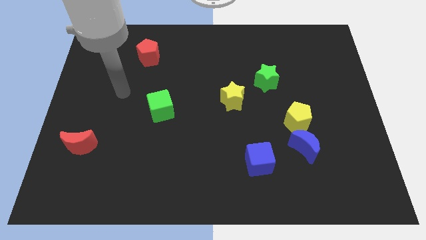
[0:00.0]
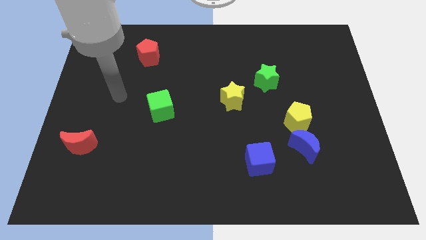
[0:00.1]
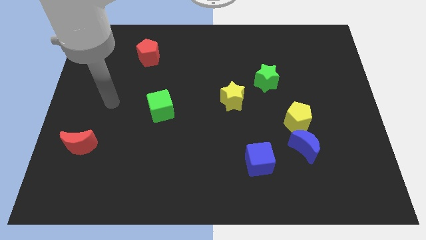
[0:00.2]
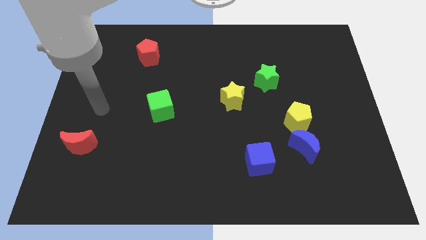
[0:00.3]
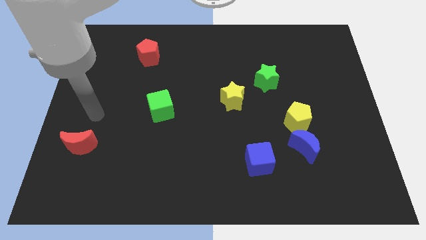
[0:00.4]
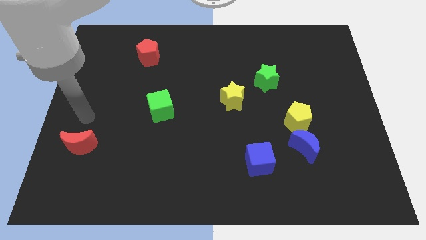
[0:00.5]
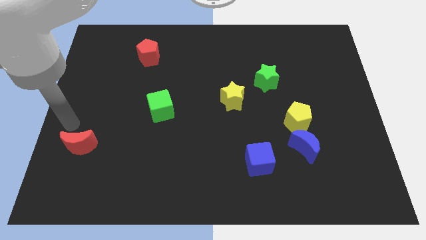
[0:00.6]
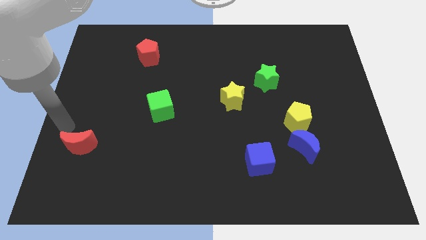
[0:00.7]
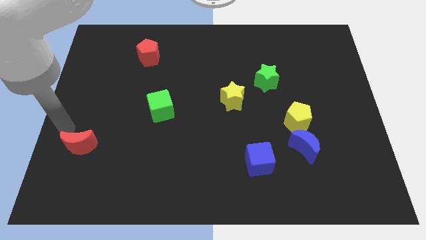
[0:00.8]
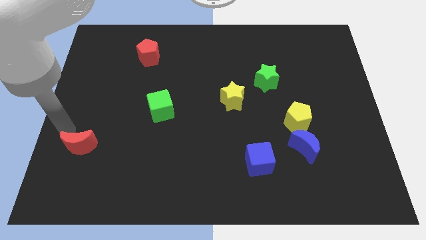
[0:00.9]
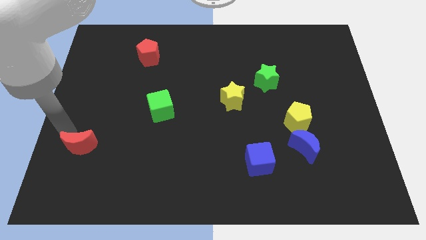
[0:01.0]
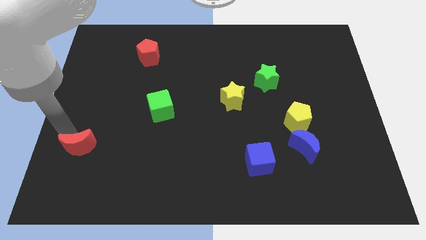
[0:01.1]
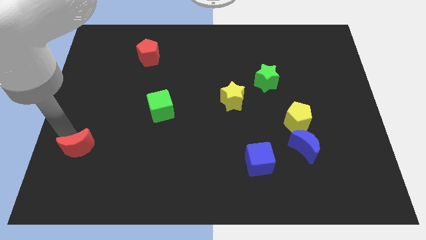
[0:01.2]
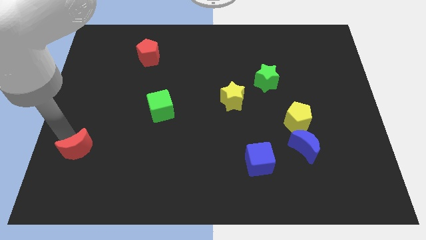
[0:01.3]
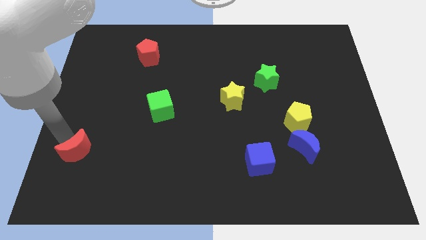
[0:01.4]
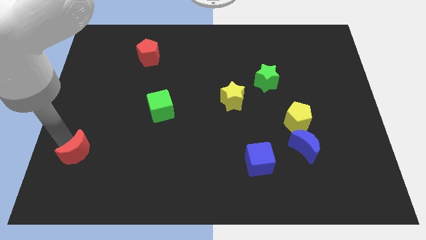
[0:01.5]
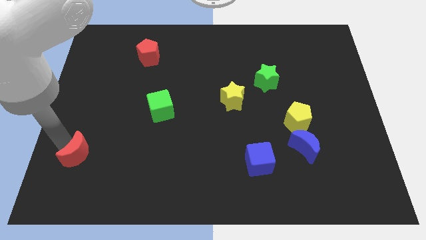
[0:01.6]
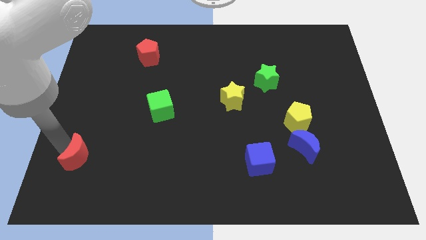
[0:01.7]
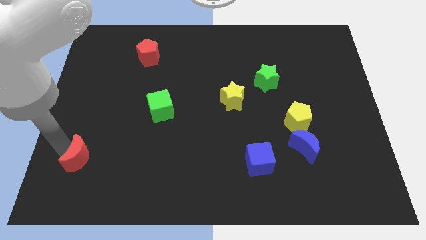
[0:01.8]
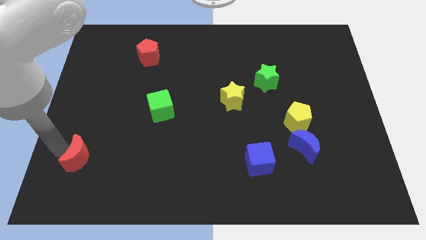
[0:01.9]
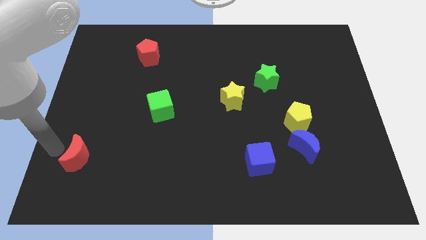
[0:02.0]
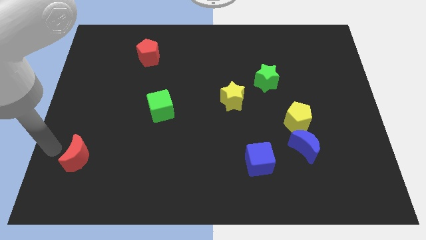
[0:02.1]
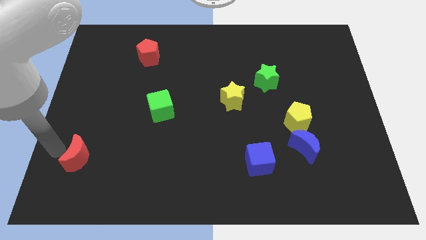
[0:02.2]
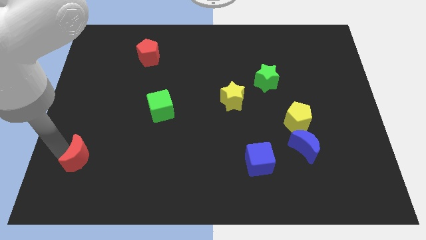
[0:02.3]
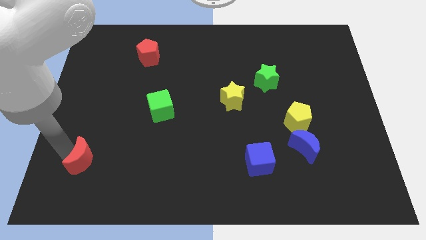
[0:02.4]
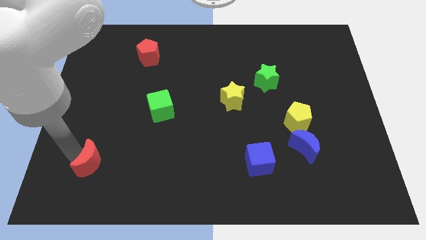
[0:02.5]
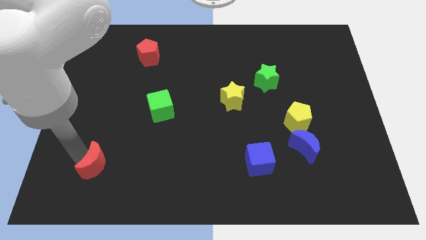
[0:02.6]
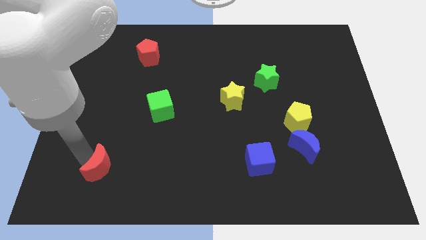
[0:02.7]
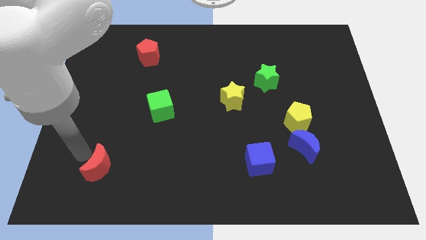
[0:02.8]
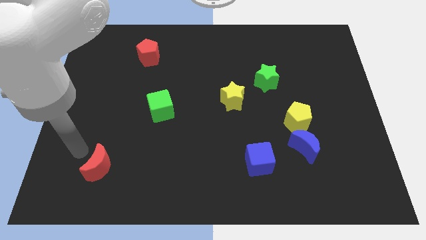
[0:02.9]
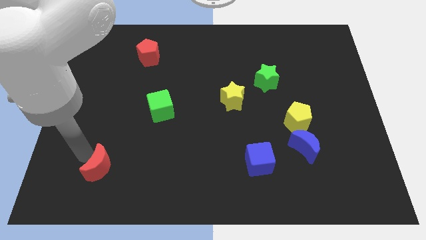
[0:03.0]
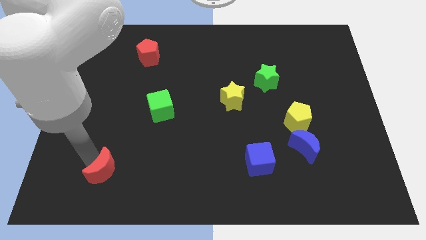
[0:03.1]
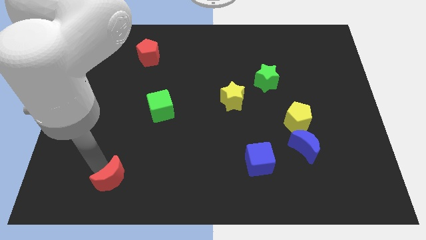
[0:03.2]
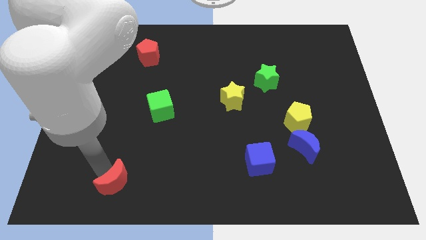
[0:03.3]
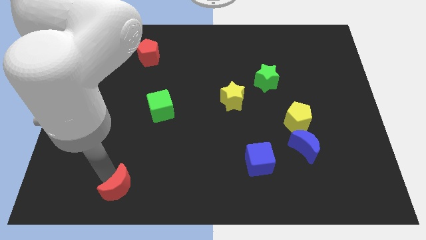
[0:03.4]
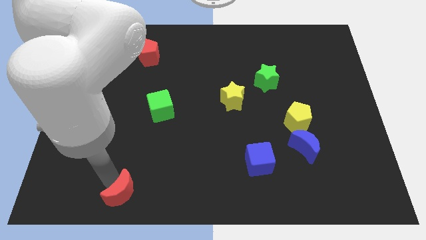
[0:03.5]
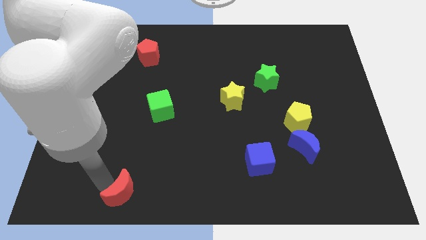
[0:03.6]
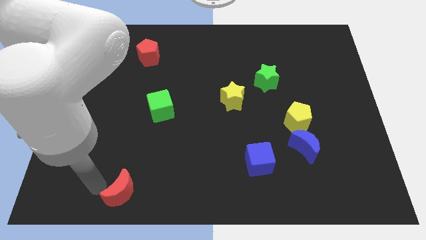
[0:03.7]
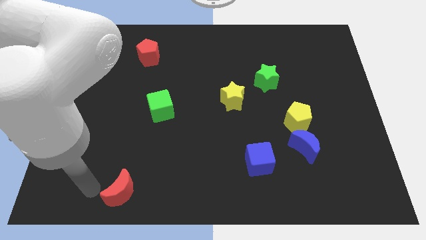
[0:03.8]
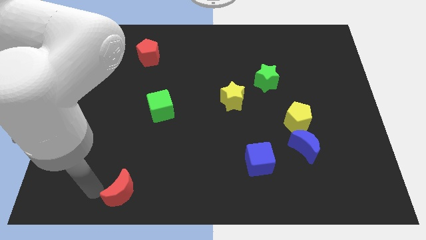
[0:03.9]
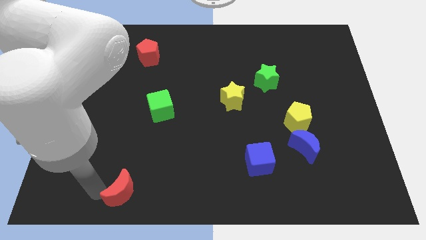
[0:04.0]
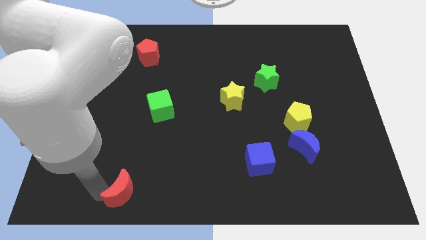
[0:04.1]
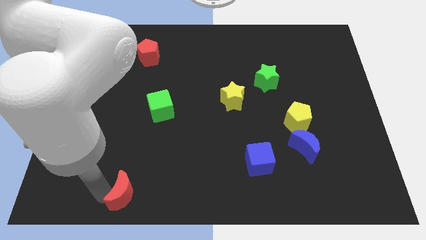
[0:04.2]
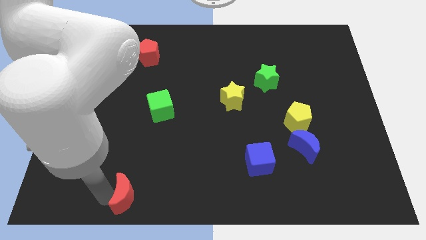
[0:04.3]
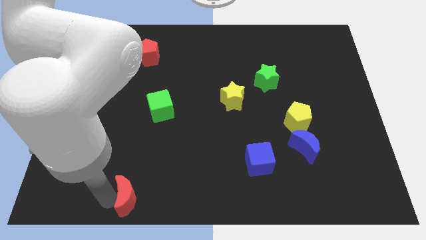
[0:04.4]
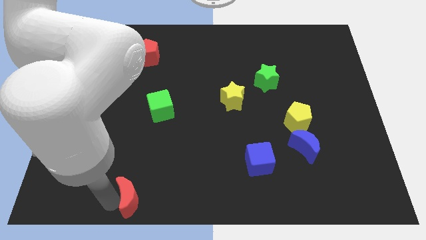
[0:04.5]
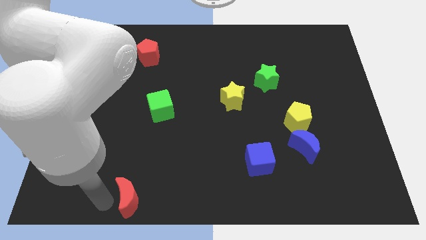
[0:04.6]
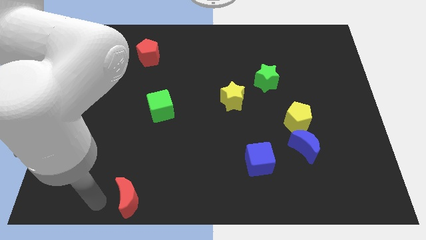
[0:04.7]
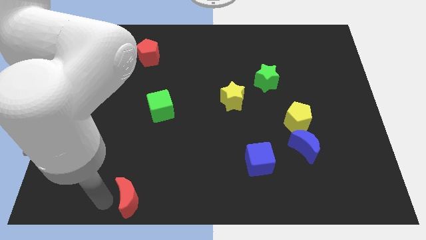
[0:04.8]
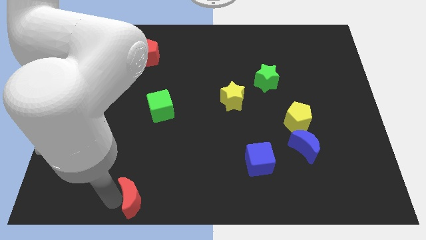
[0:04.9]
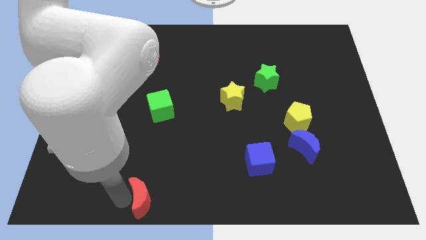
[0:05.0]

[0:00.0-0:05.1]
push the red moon to the bottom

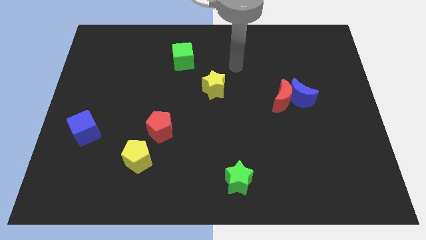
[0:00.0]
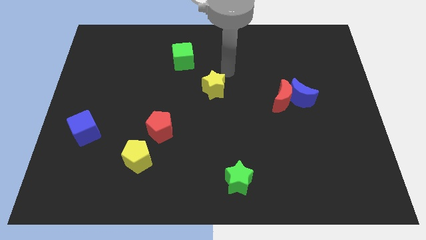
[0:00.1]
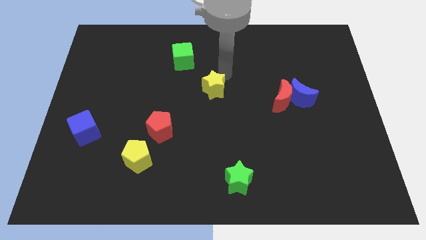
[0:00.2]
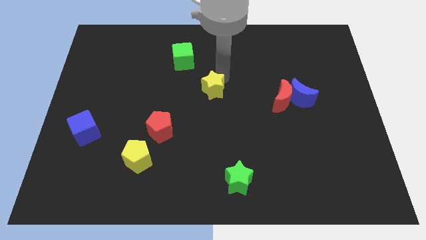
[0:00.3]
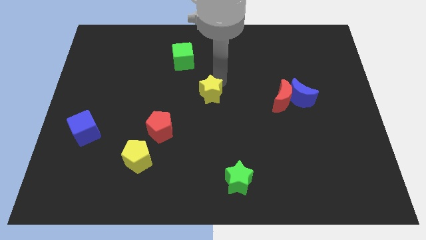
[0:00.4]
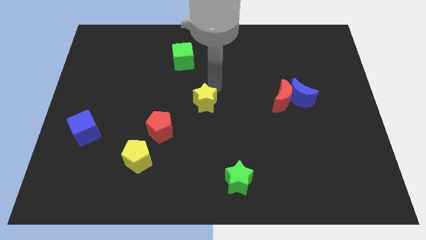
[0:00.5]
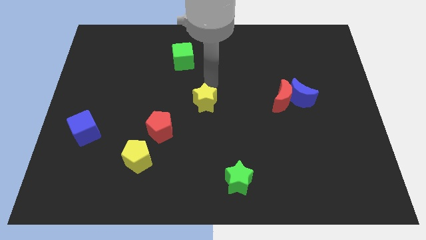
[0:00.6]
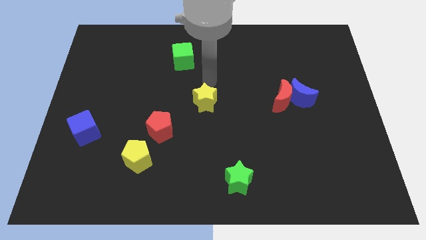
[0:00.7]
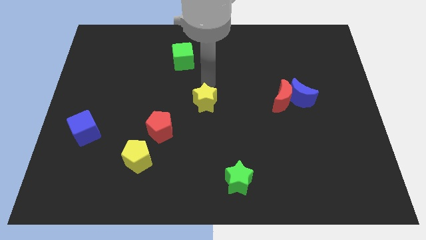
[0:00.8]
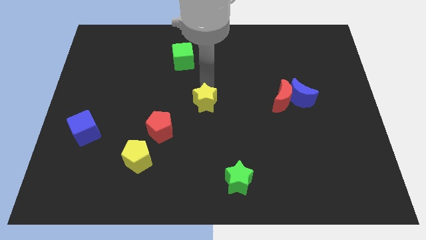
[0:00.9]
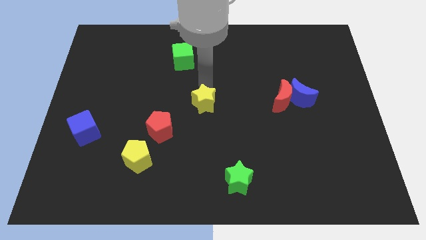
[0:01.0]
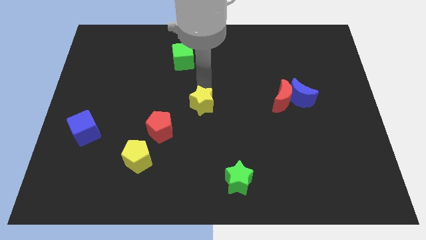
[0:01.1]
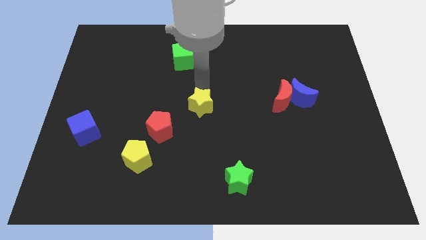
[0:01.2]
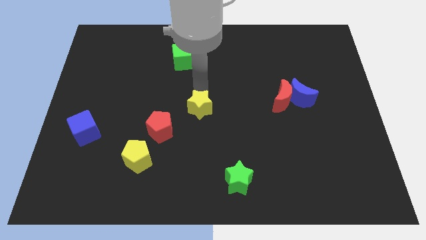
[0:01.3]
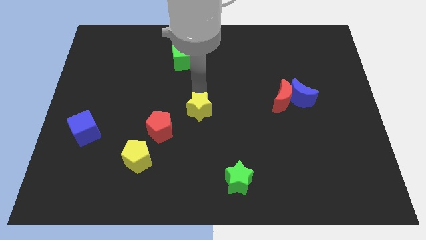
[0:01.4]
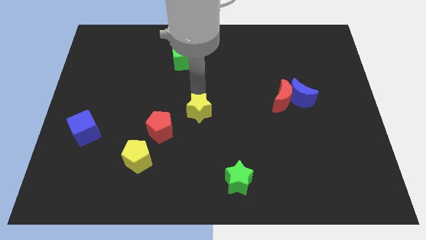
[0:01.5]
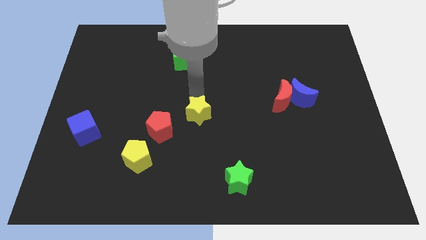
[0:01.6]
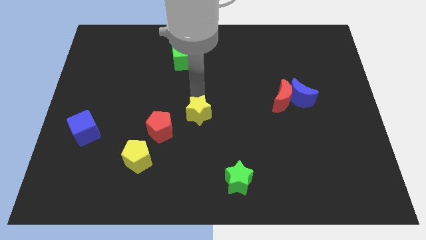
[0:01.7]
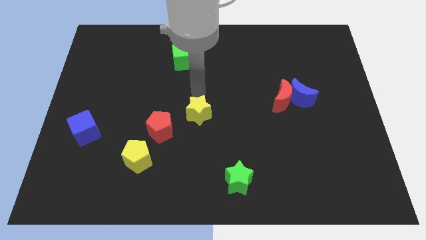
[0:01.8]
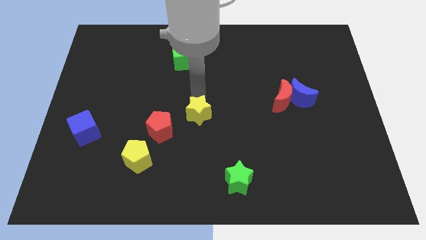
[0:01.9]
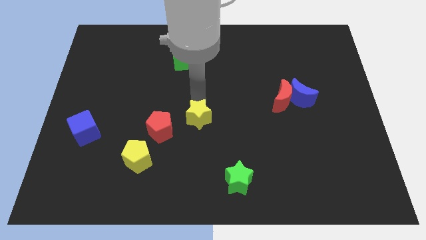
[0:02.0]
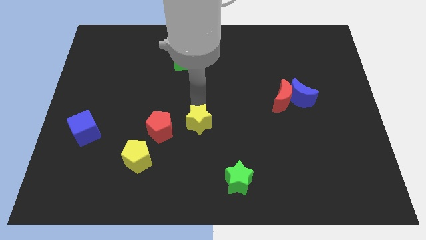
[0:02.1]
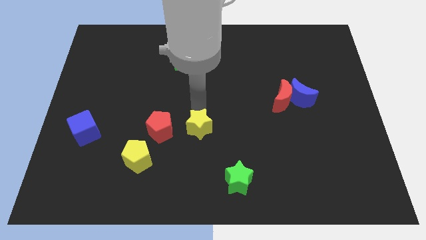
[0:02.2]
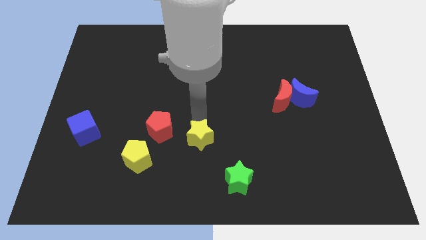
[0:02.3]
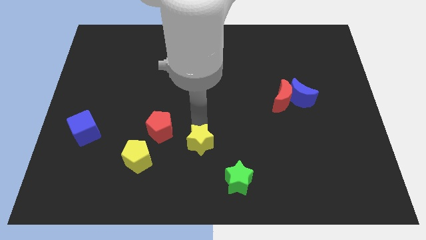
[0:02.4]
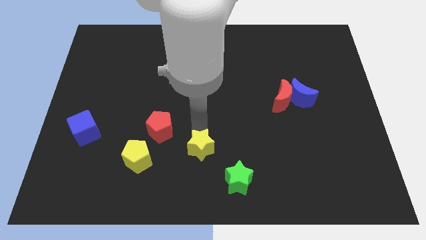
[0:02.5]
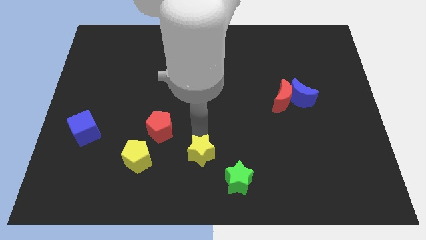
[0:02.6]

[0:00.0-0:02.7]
move the yellow star to the bottom side
